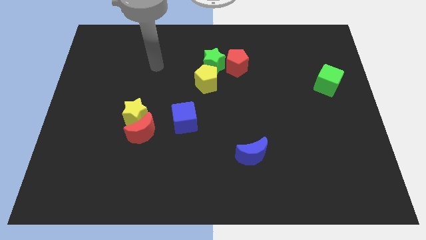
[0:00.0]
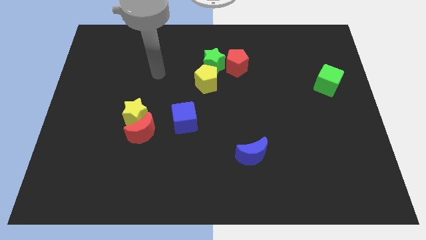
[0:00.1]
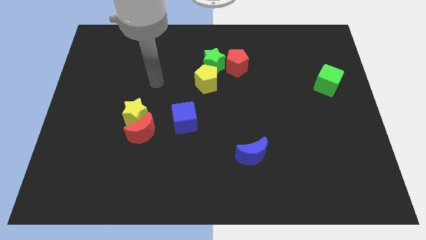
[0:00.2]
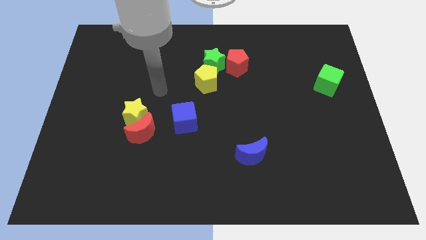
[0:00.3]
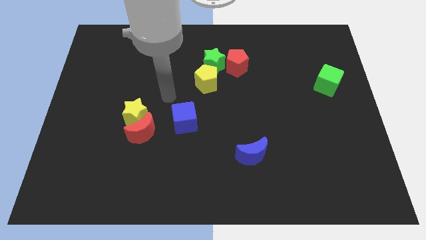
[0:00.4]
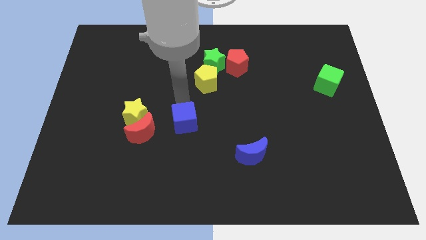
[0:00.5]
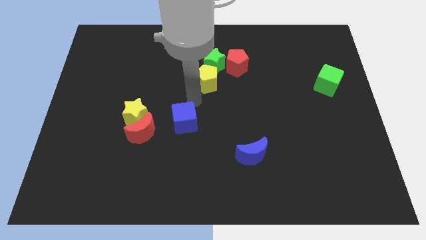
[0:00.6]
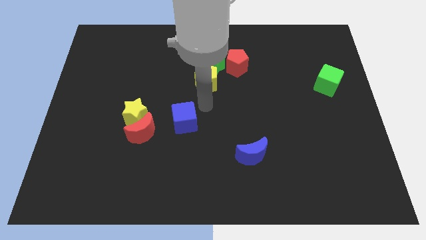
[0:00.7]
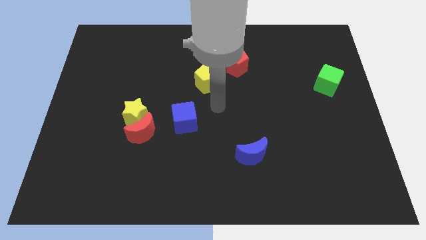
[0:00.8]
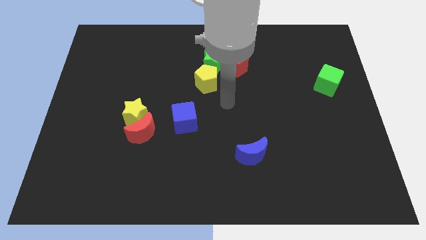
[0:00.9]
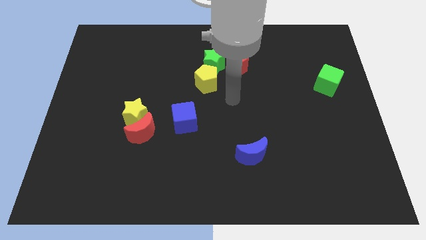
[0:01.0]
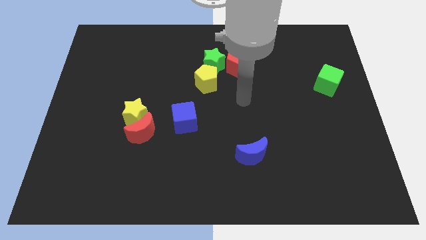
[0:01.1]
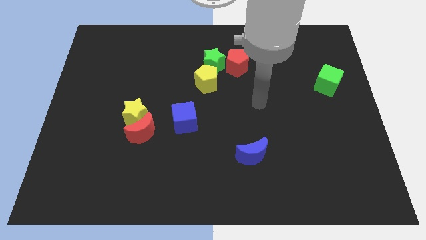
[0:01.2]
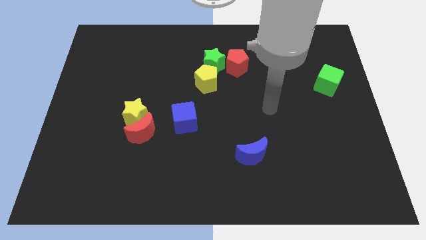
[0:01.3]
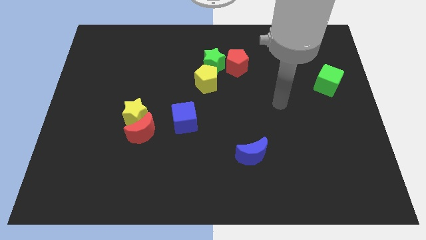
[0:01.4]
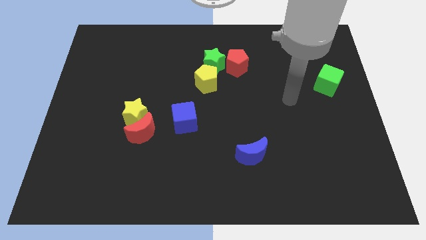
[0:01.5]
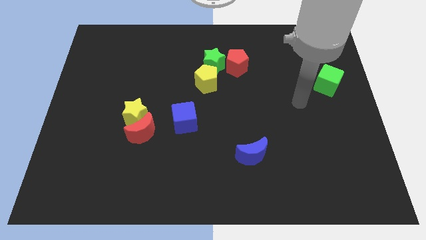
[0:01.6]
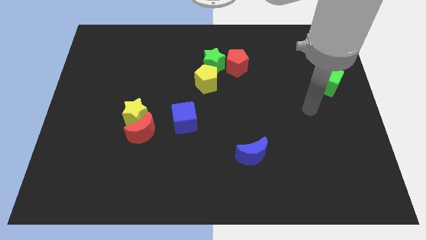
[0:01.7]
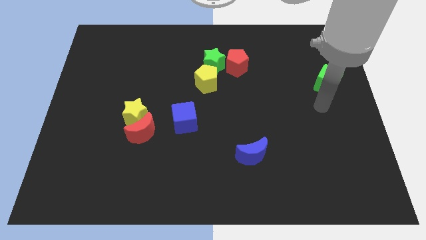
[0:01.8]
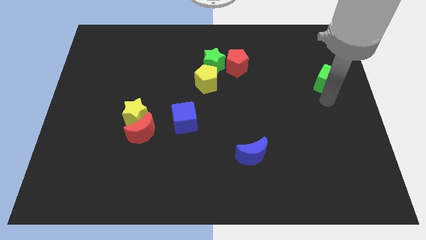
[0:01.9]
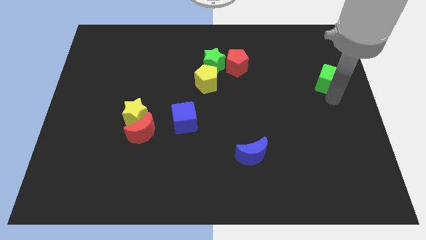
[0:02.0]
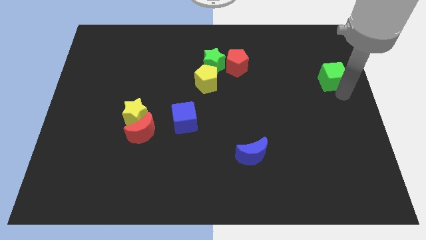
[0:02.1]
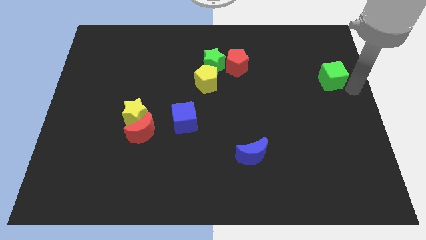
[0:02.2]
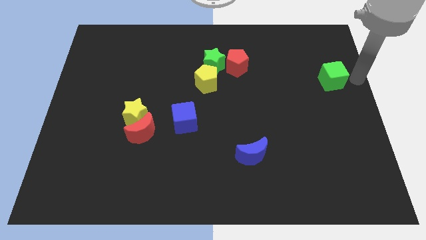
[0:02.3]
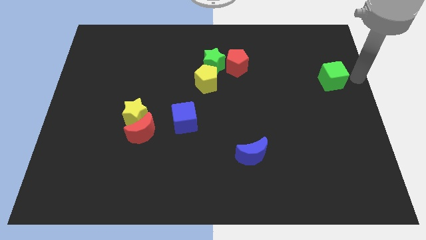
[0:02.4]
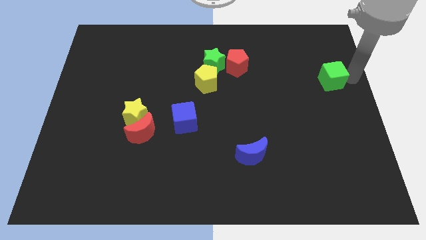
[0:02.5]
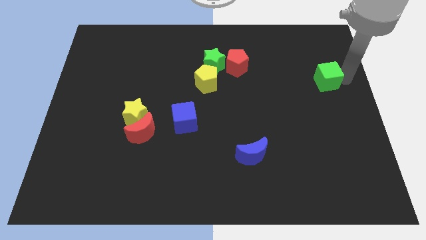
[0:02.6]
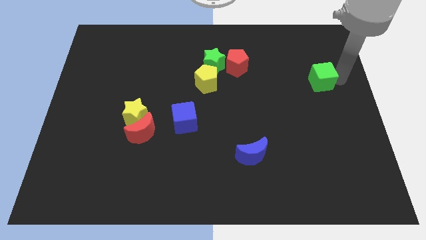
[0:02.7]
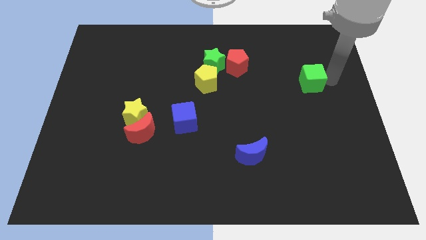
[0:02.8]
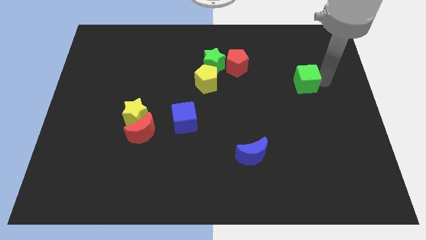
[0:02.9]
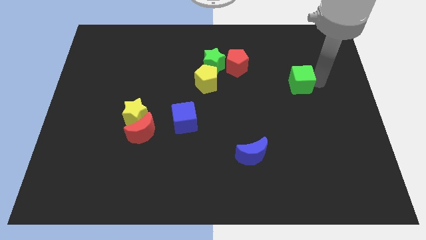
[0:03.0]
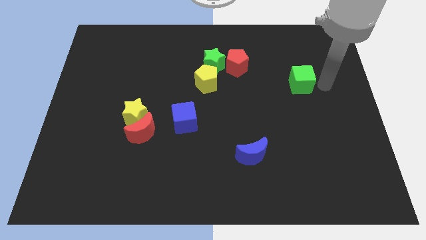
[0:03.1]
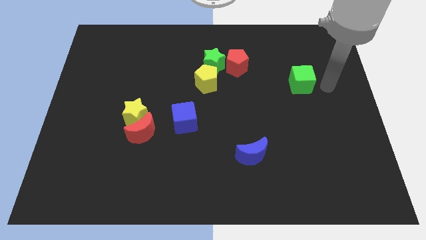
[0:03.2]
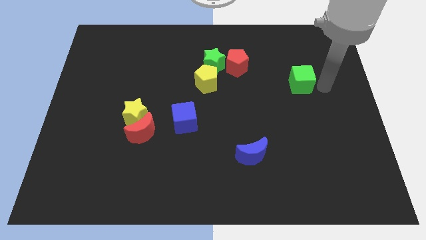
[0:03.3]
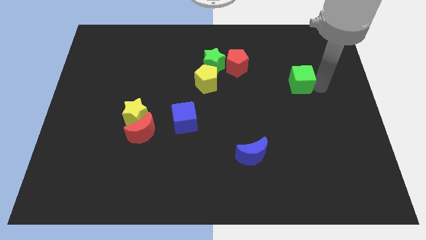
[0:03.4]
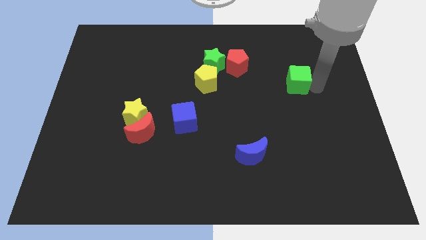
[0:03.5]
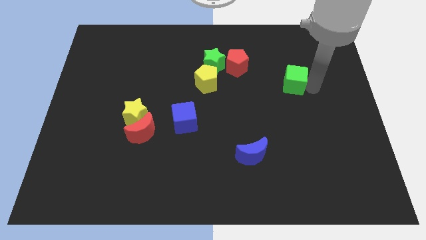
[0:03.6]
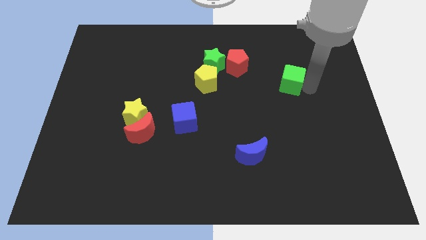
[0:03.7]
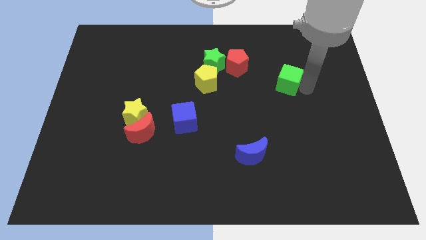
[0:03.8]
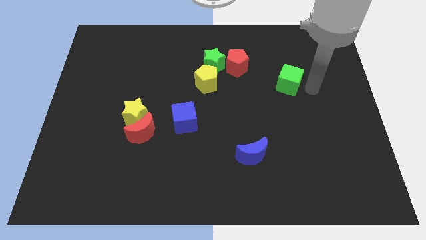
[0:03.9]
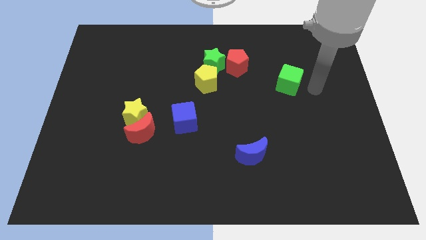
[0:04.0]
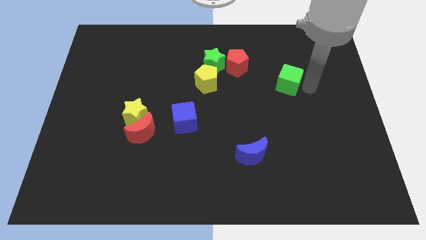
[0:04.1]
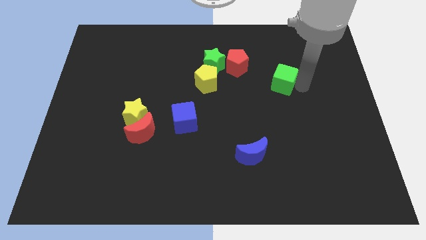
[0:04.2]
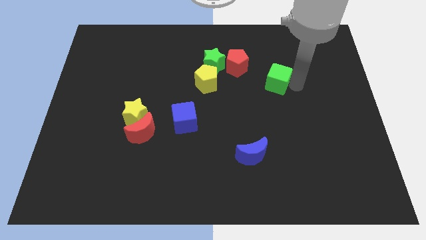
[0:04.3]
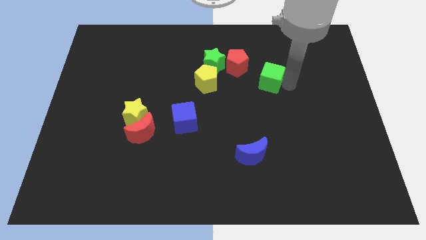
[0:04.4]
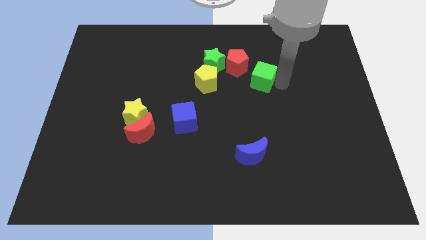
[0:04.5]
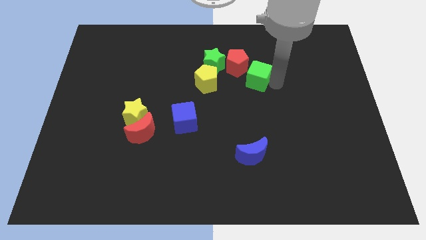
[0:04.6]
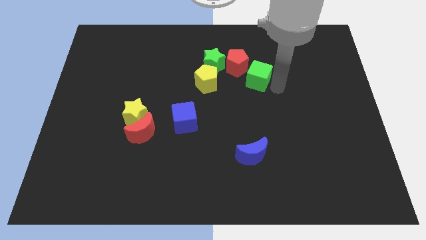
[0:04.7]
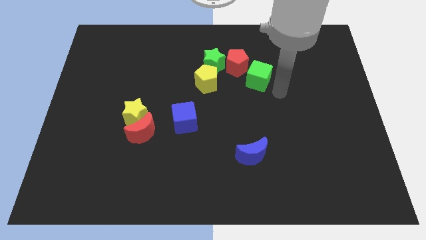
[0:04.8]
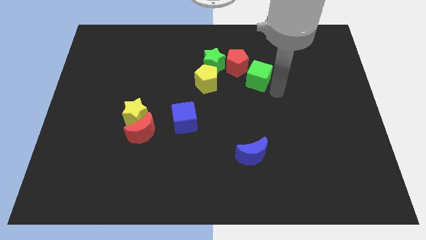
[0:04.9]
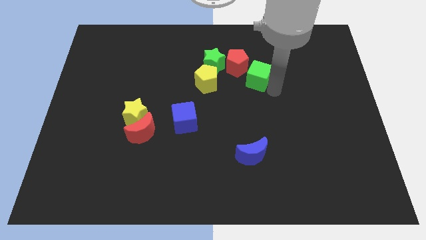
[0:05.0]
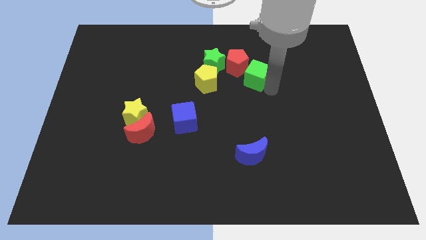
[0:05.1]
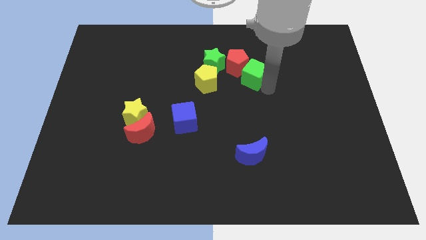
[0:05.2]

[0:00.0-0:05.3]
move the green cube next to the red pentagon

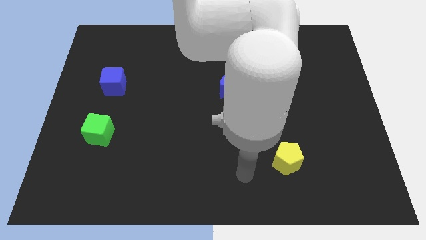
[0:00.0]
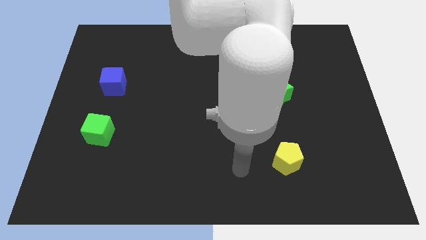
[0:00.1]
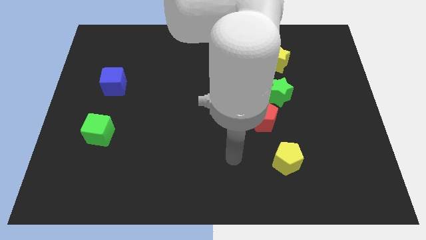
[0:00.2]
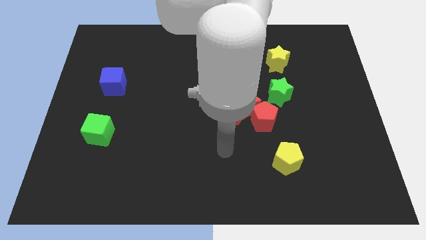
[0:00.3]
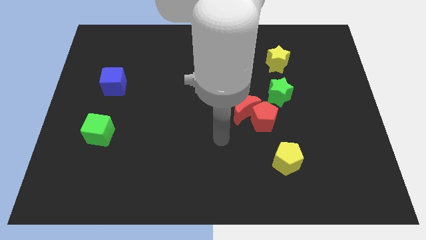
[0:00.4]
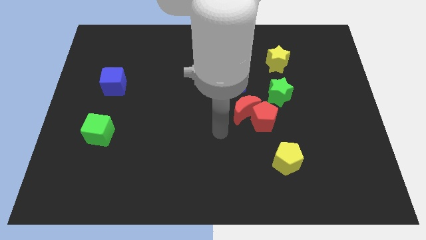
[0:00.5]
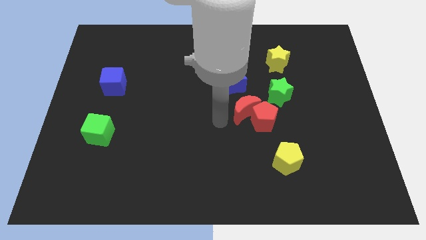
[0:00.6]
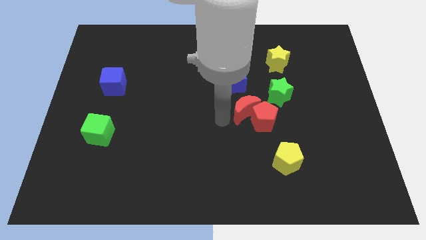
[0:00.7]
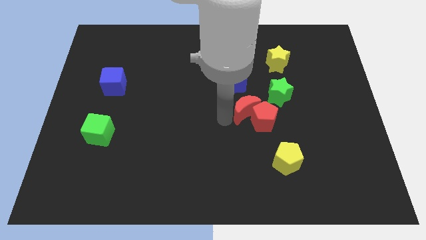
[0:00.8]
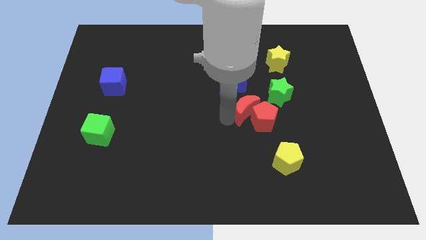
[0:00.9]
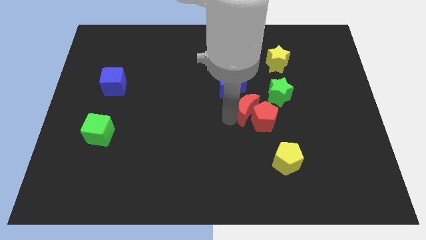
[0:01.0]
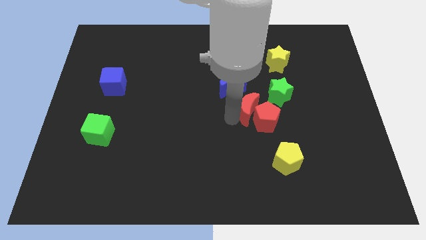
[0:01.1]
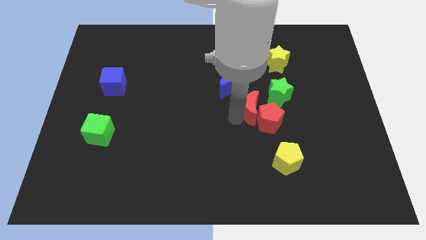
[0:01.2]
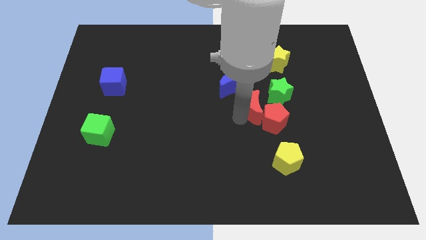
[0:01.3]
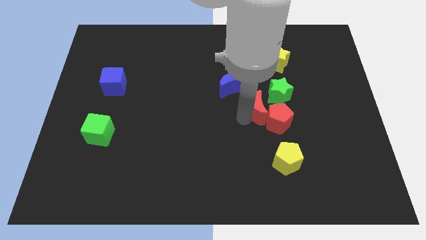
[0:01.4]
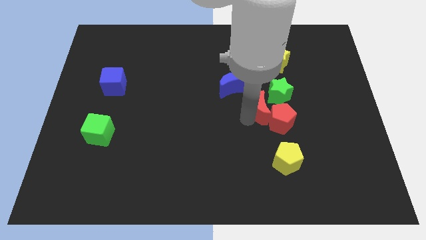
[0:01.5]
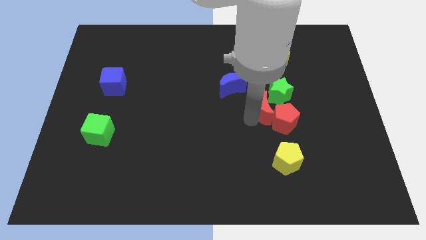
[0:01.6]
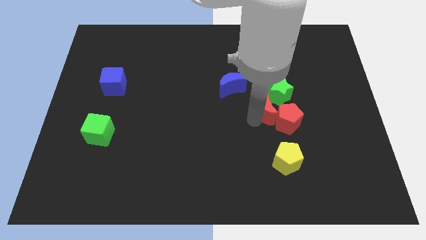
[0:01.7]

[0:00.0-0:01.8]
slide the red moon next to the green star
